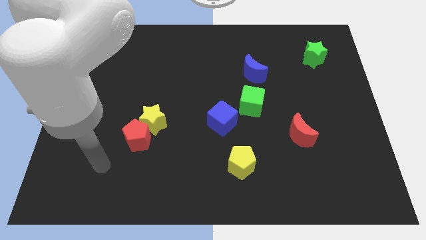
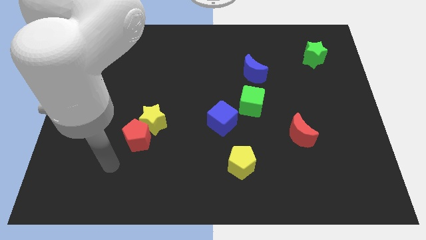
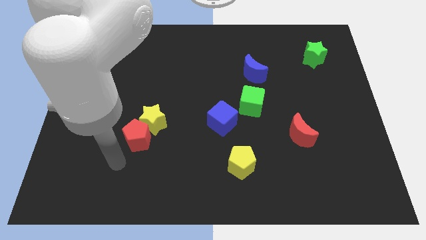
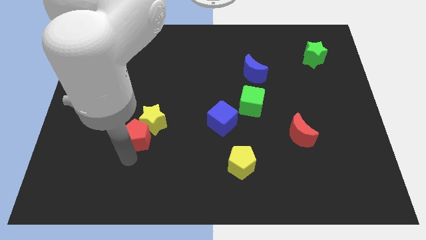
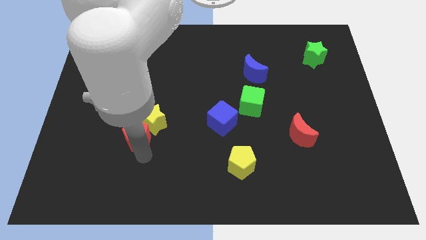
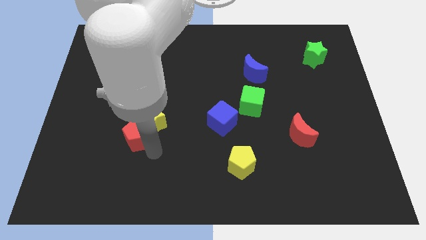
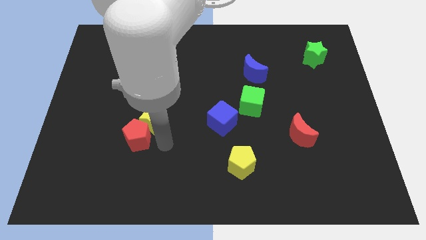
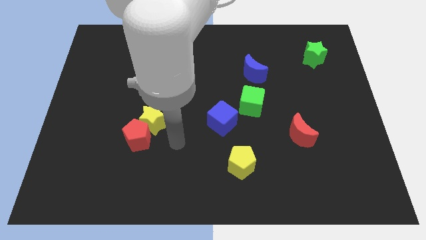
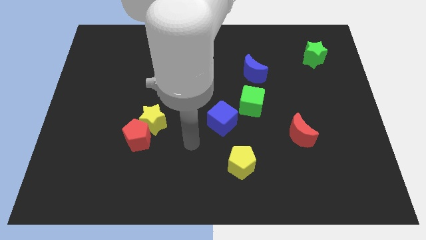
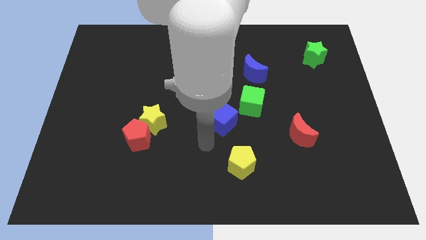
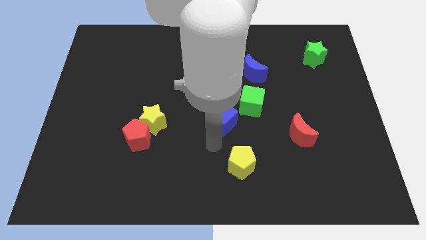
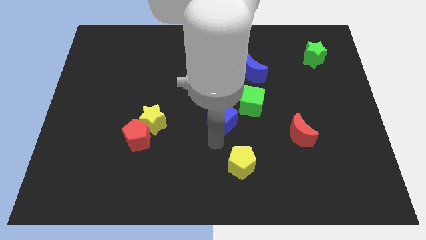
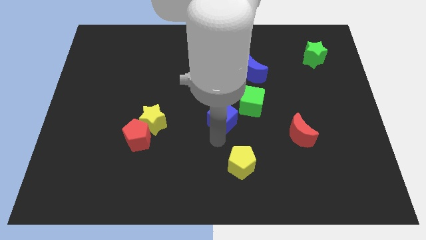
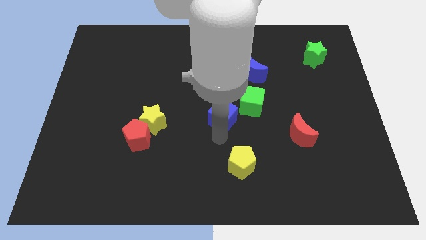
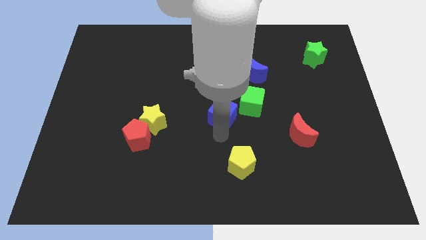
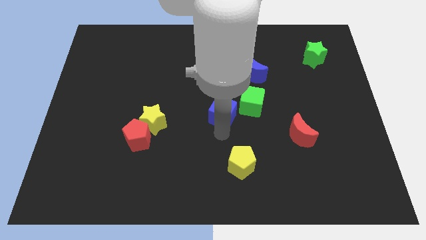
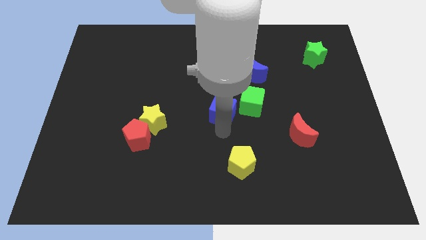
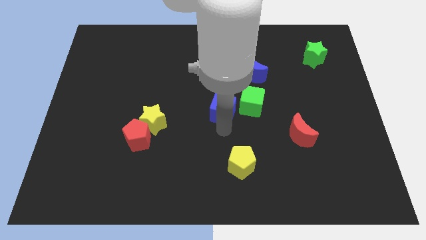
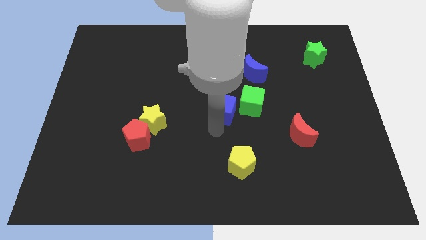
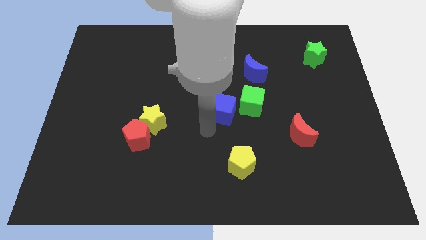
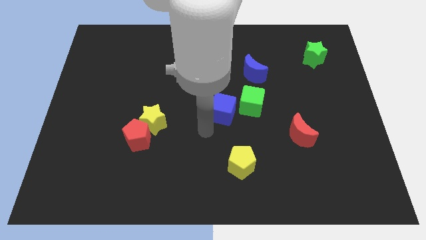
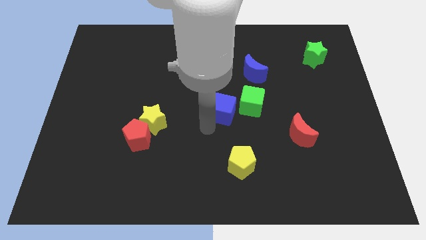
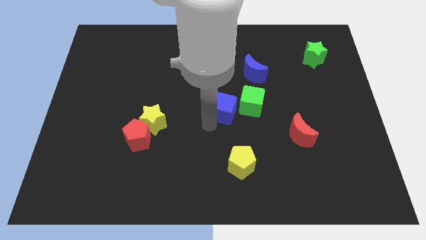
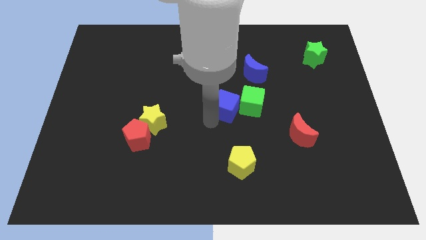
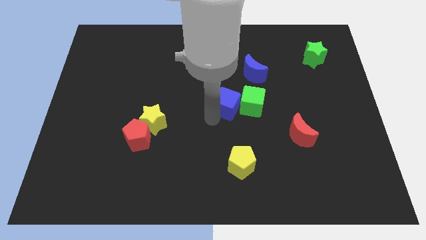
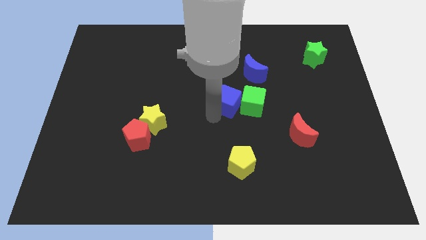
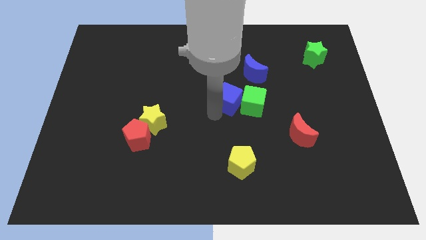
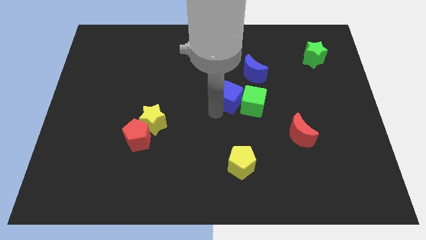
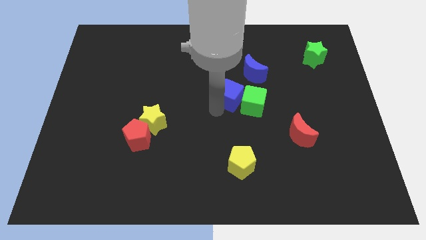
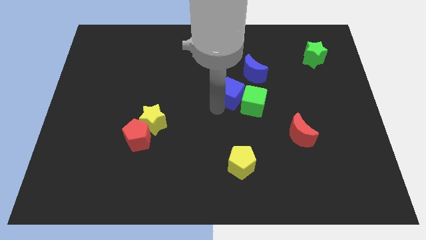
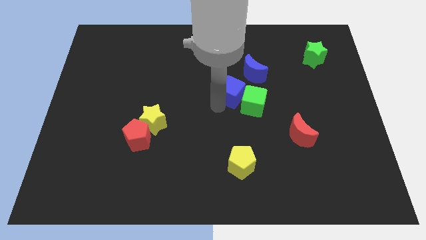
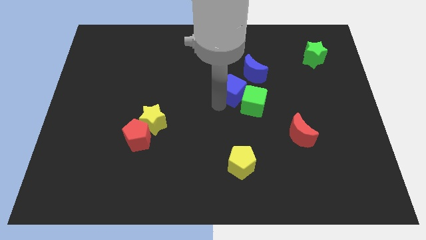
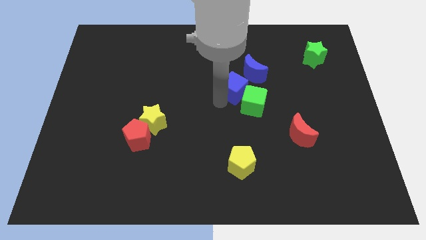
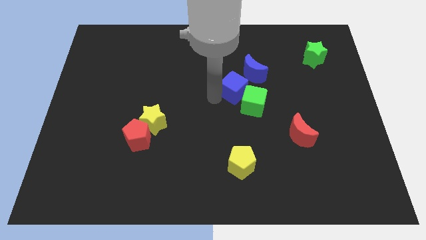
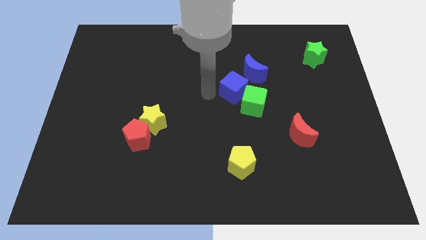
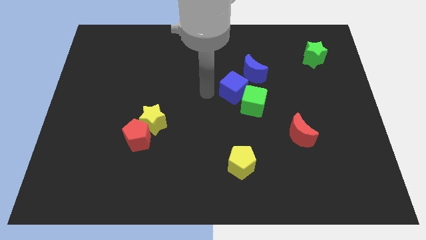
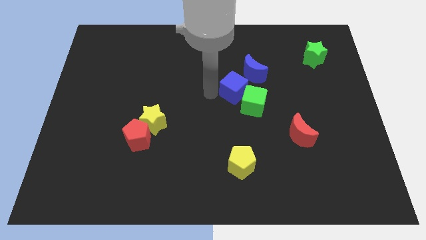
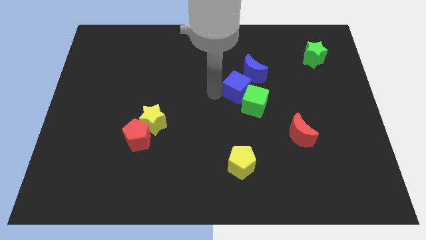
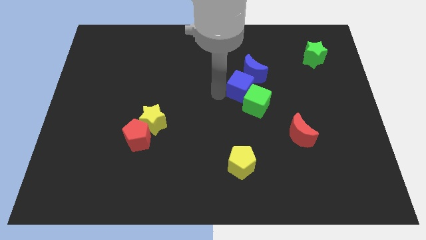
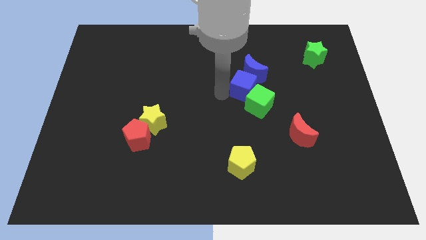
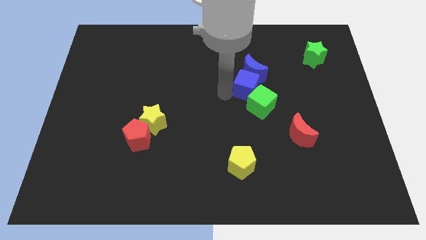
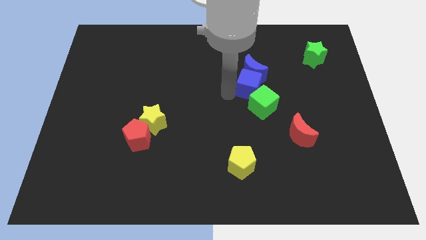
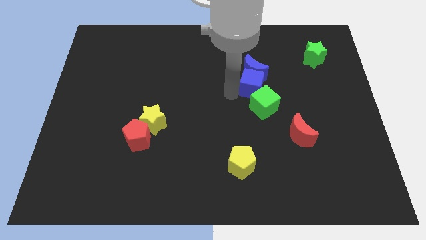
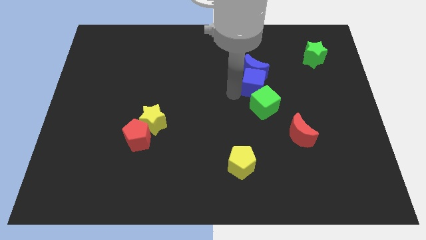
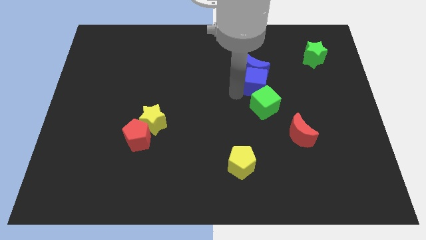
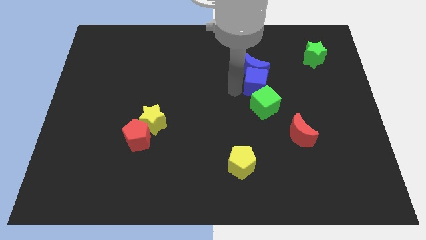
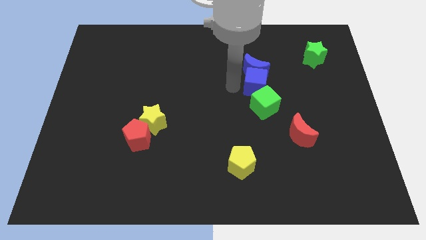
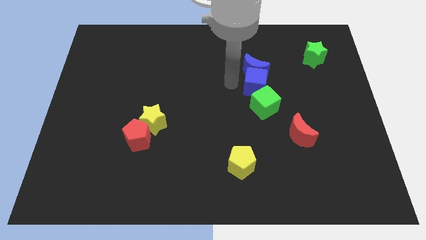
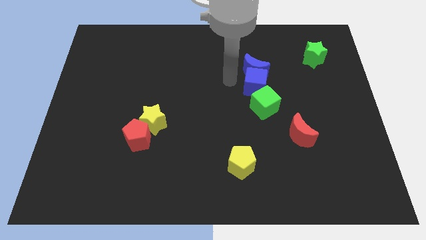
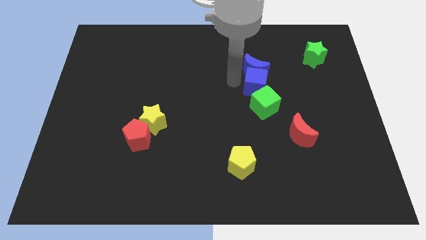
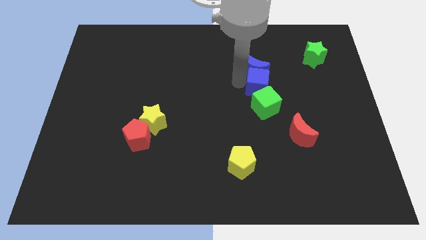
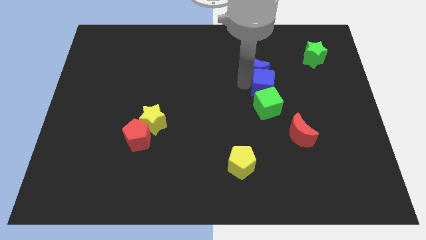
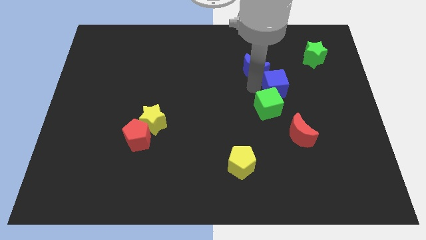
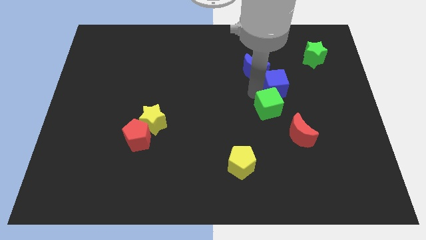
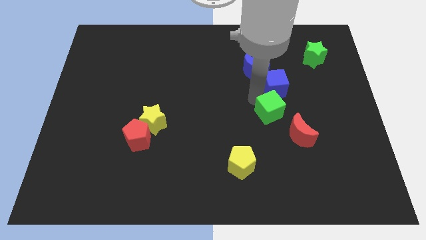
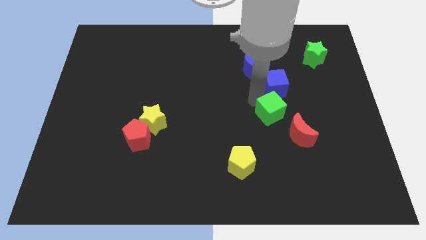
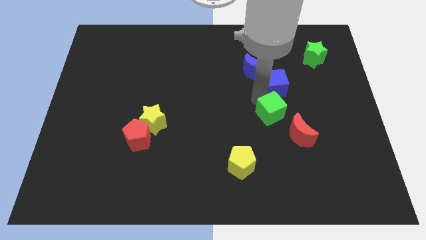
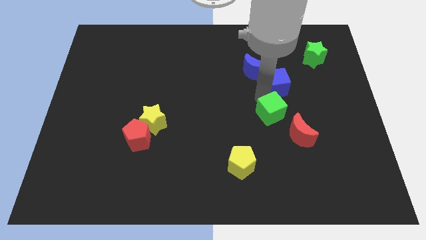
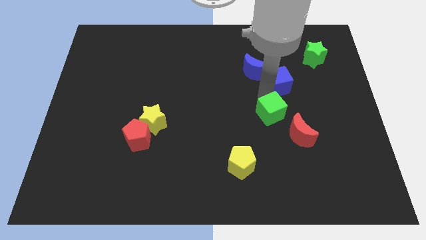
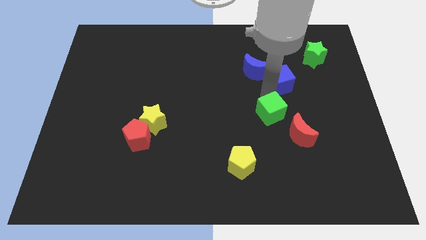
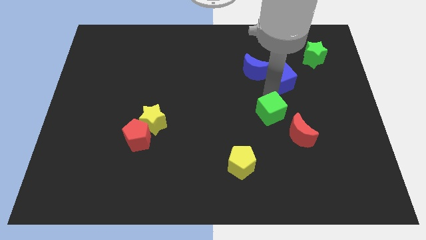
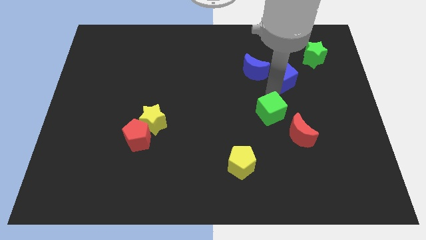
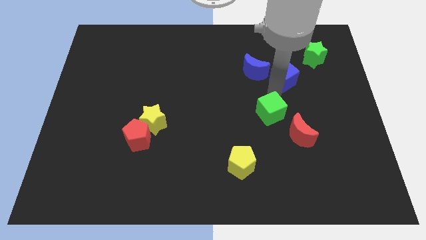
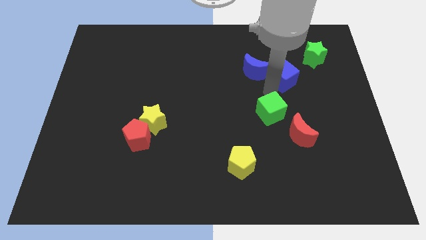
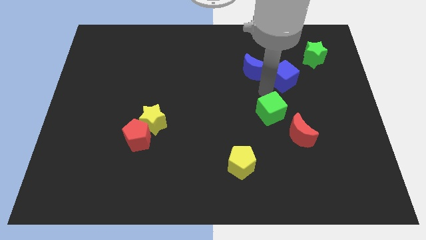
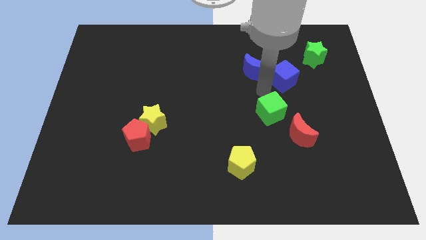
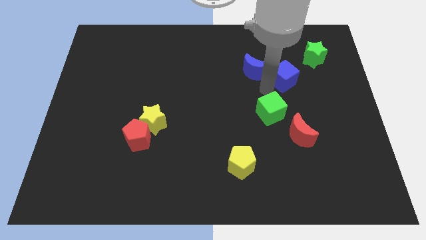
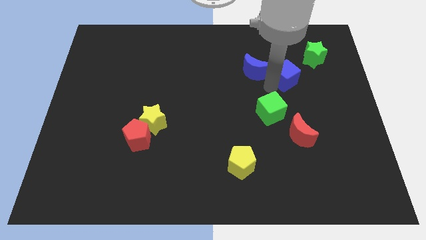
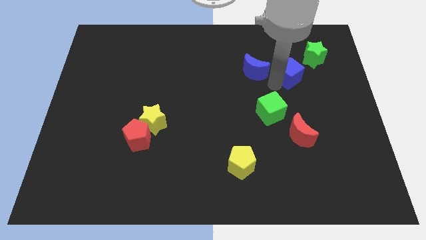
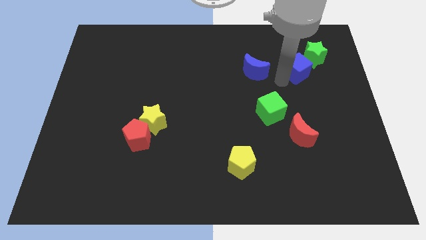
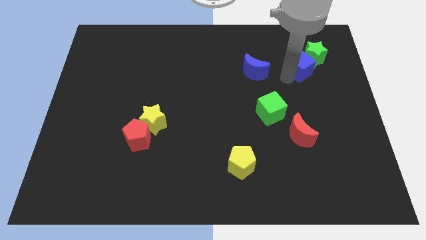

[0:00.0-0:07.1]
push the blue cube next to the green star

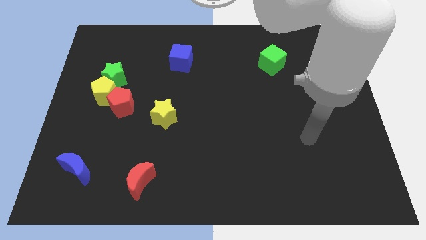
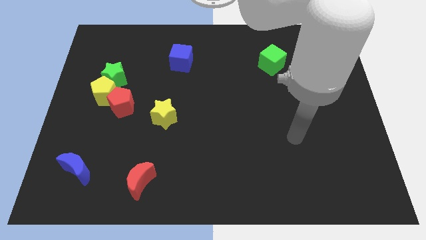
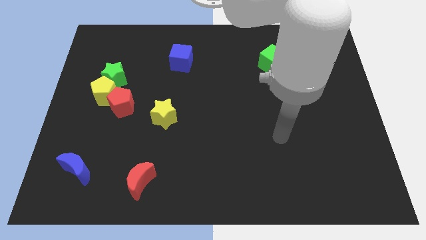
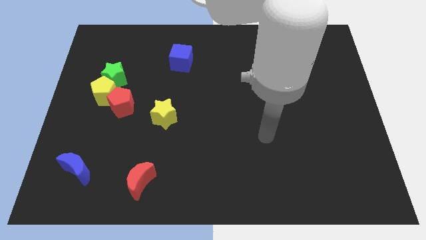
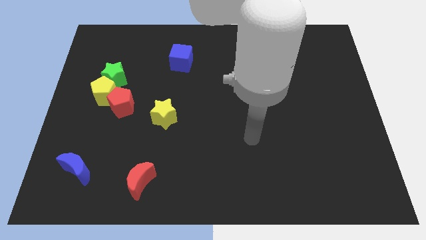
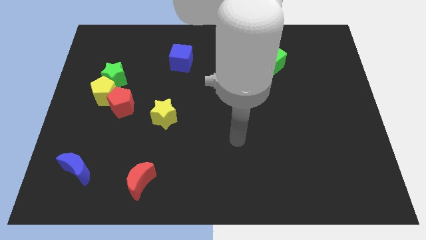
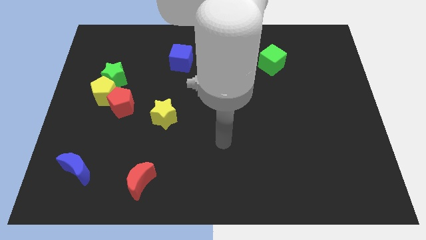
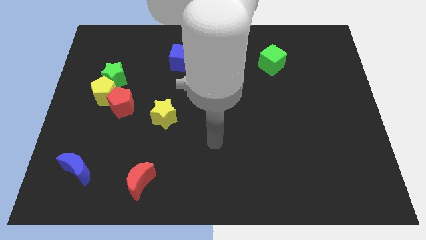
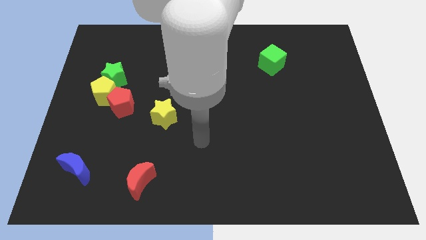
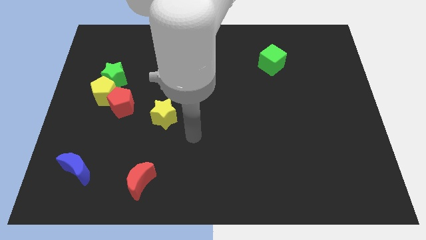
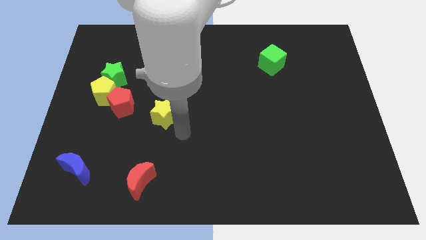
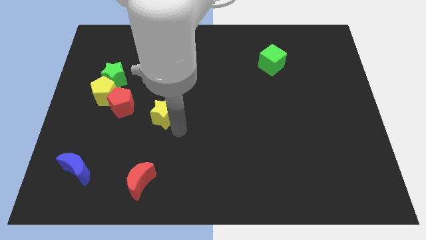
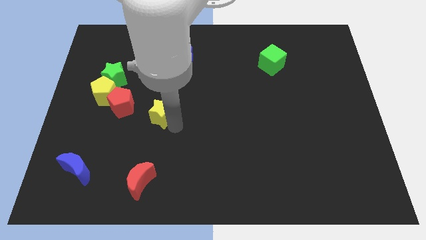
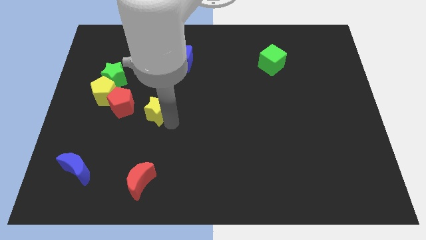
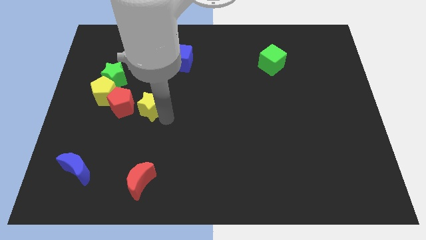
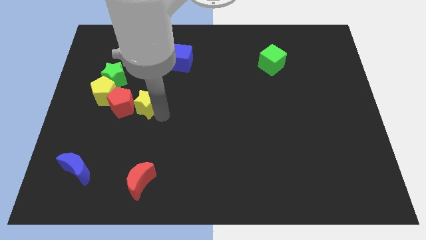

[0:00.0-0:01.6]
slide the yellow star towards the red pentagon
